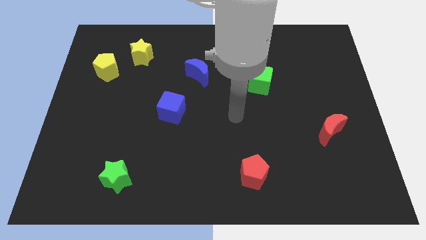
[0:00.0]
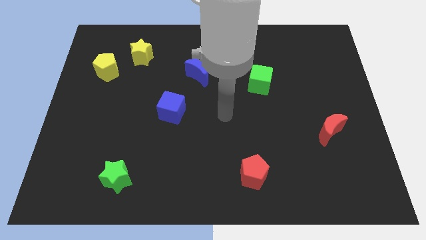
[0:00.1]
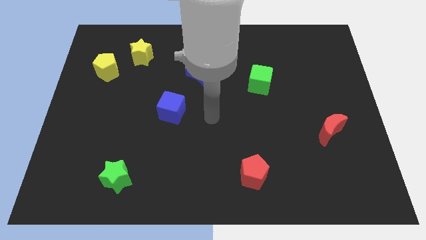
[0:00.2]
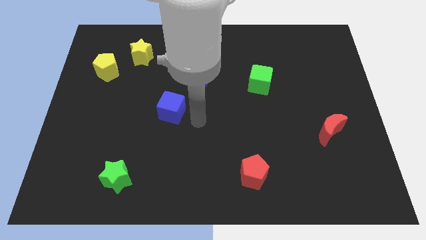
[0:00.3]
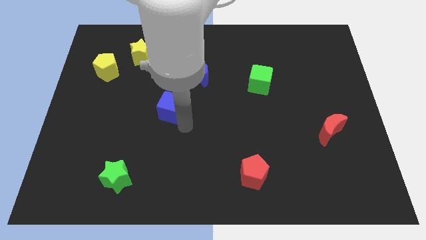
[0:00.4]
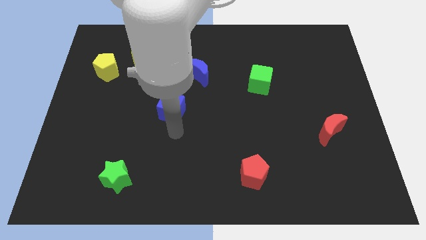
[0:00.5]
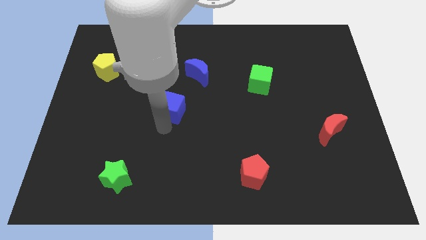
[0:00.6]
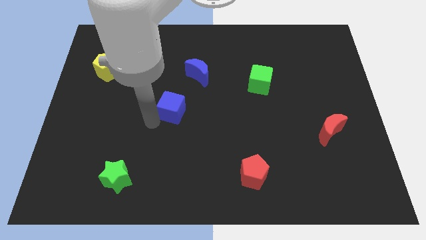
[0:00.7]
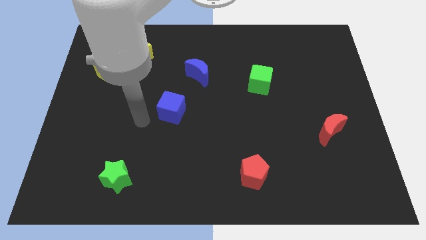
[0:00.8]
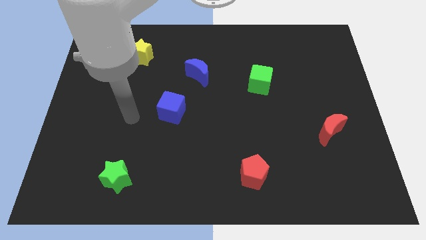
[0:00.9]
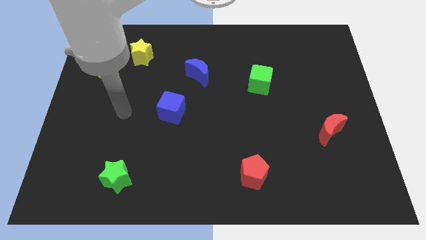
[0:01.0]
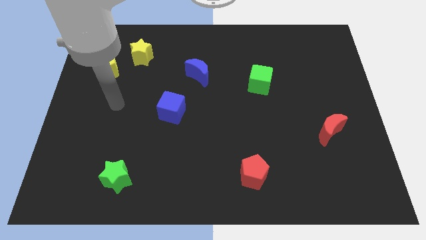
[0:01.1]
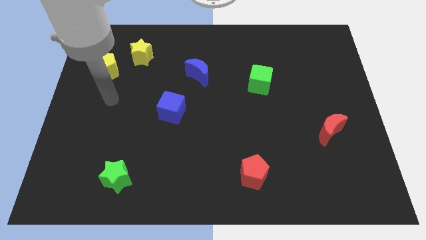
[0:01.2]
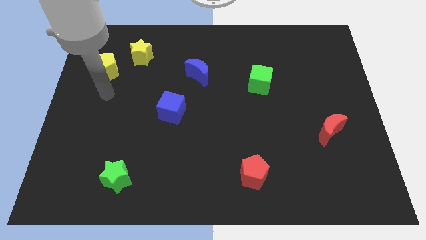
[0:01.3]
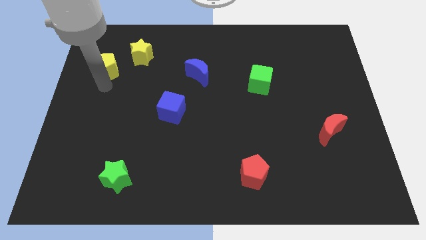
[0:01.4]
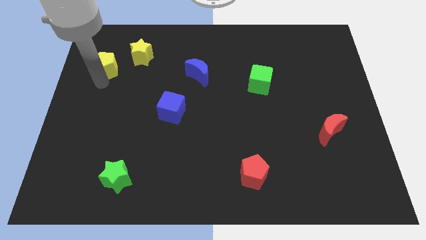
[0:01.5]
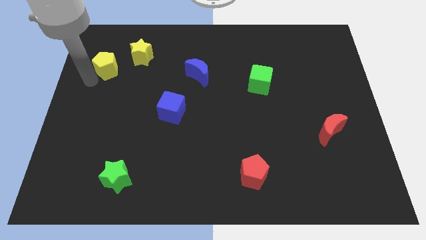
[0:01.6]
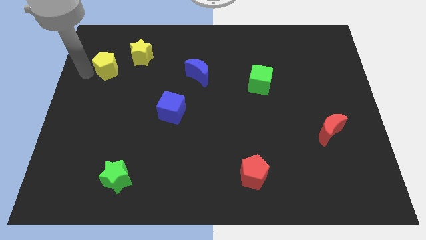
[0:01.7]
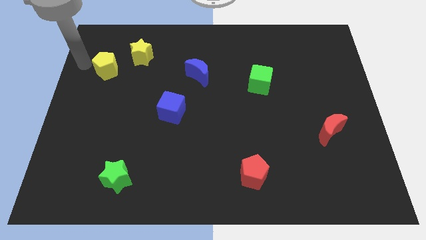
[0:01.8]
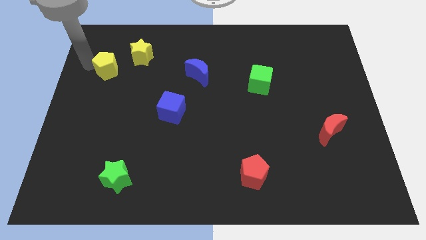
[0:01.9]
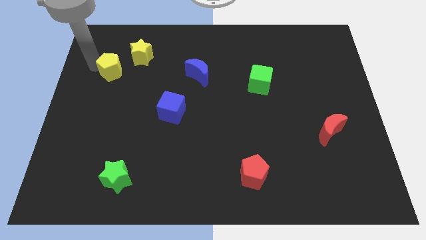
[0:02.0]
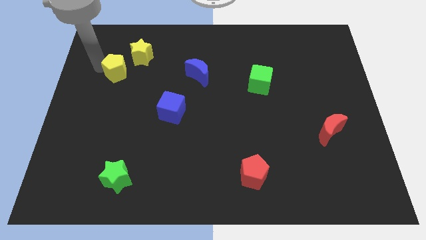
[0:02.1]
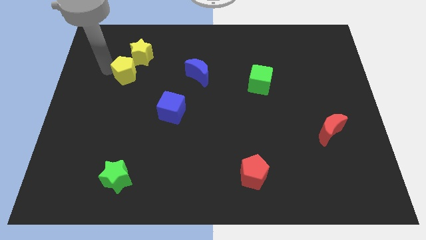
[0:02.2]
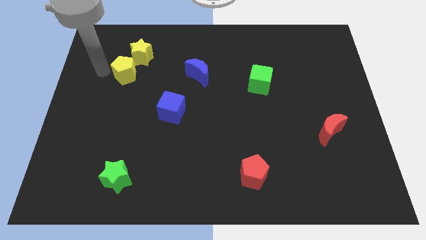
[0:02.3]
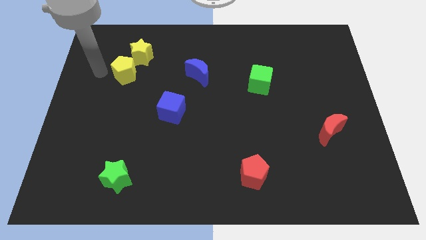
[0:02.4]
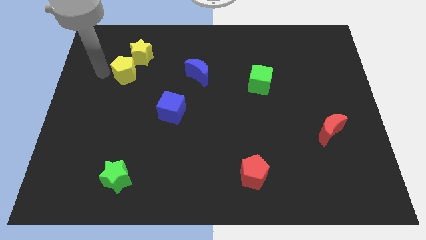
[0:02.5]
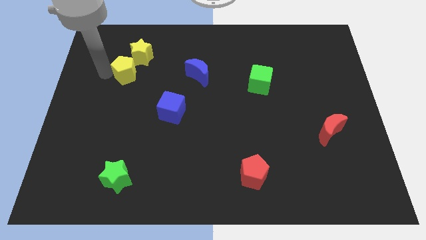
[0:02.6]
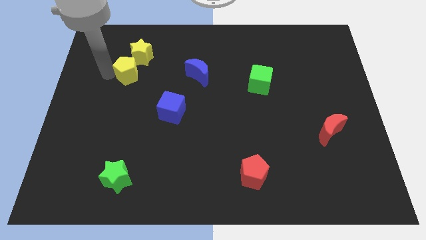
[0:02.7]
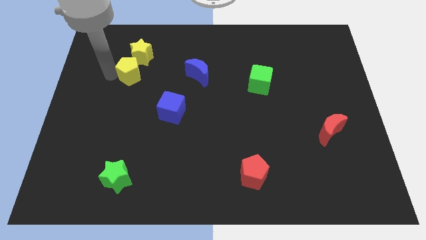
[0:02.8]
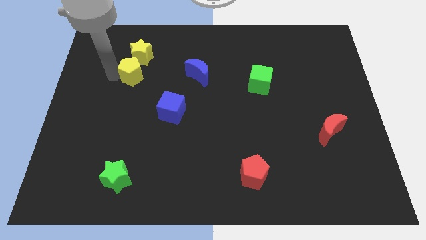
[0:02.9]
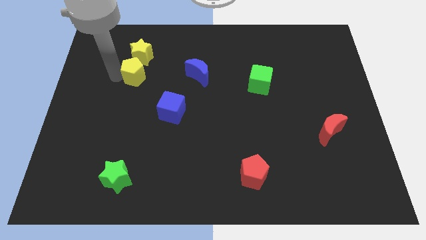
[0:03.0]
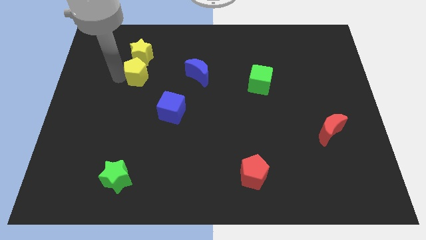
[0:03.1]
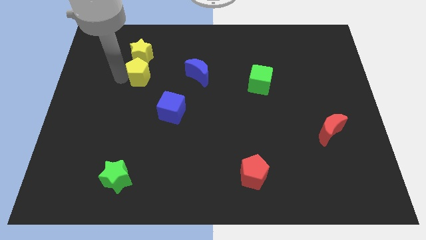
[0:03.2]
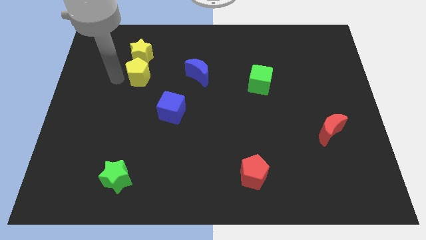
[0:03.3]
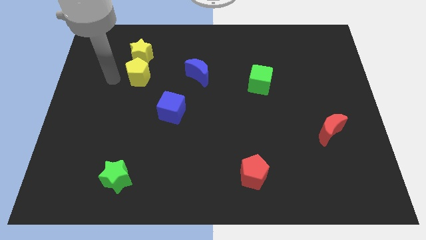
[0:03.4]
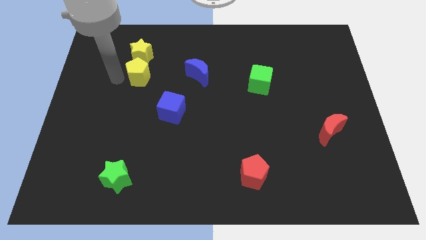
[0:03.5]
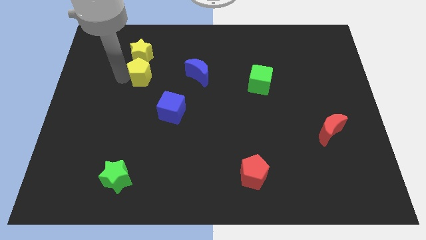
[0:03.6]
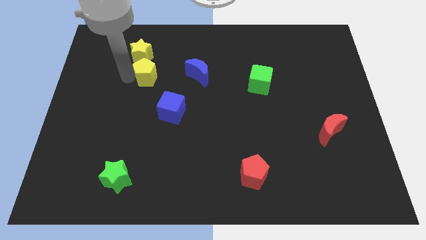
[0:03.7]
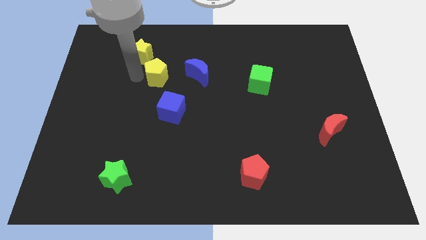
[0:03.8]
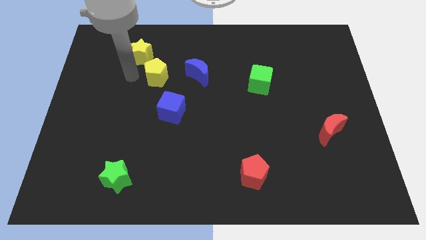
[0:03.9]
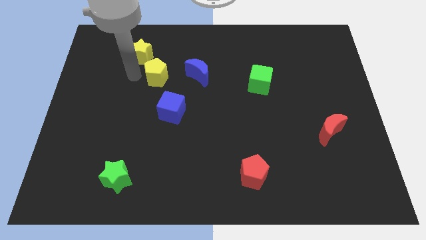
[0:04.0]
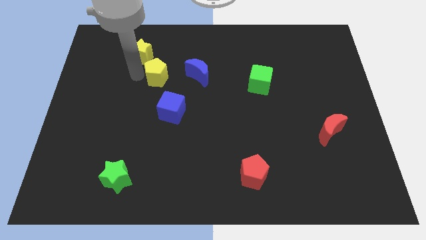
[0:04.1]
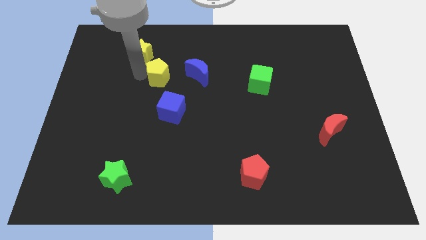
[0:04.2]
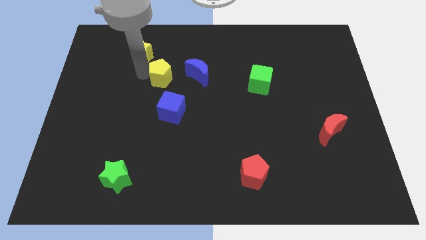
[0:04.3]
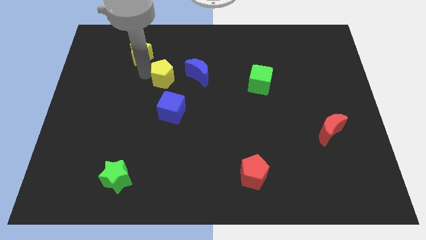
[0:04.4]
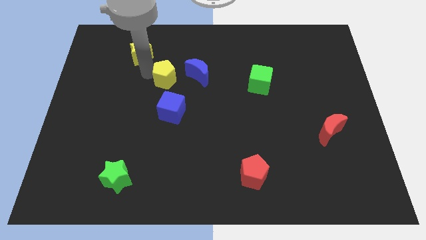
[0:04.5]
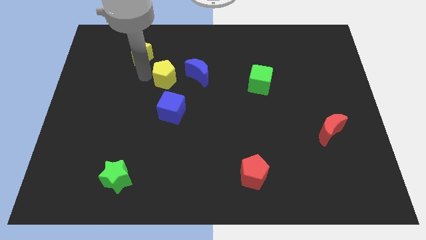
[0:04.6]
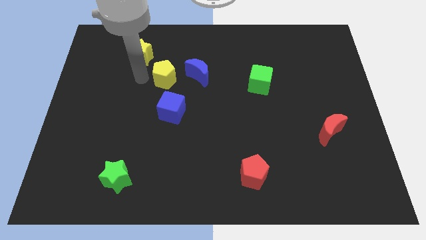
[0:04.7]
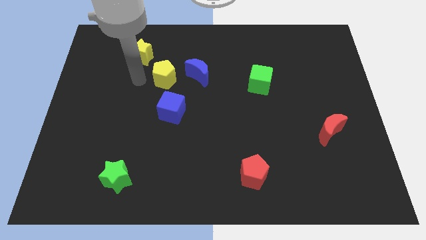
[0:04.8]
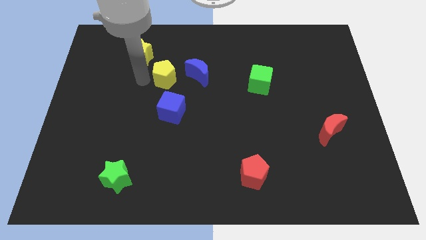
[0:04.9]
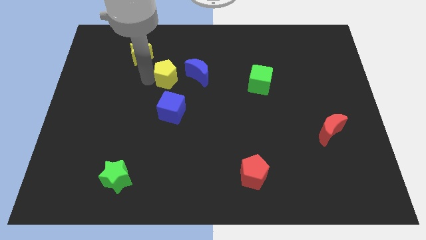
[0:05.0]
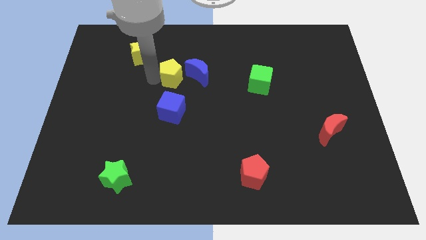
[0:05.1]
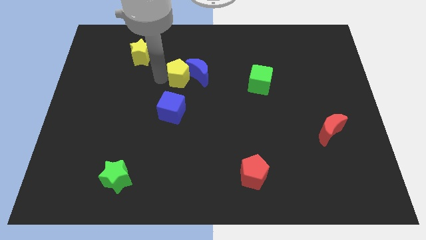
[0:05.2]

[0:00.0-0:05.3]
slide the yellow pentagon towards the blue moon

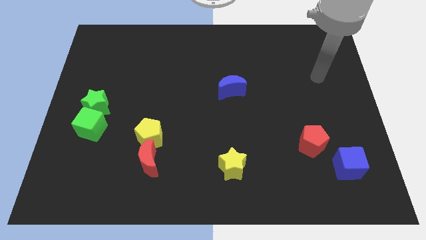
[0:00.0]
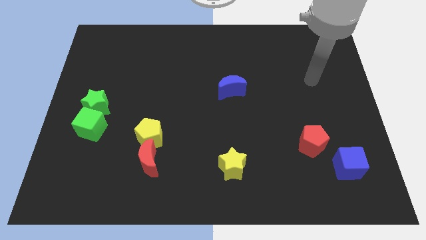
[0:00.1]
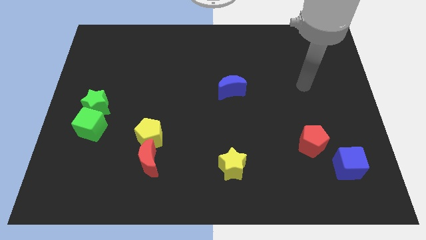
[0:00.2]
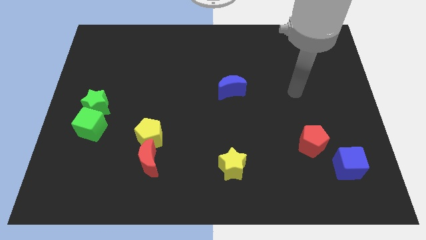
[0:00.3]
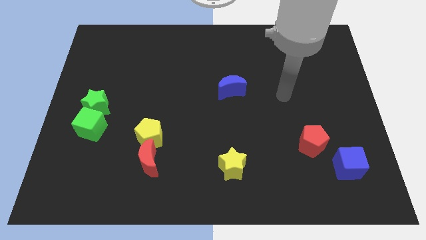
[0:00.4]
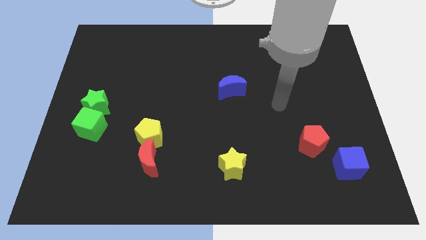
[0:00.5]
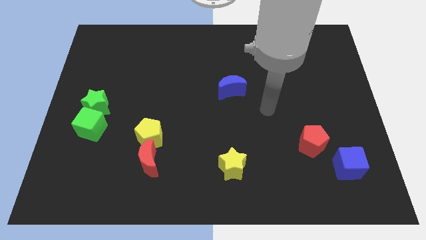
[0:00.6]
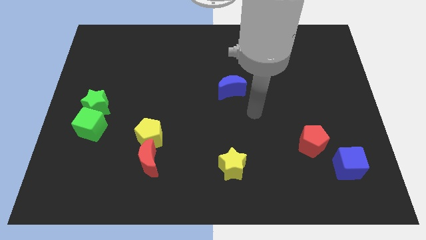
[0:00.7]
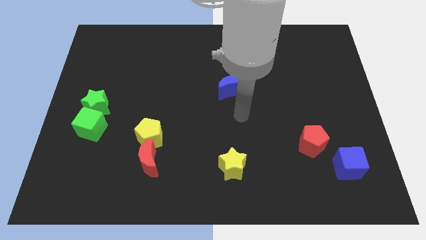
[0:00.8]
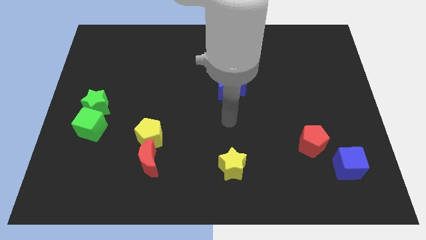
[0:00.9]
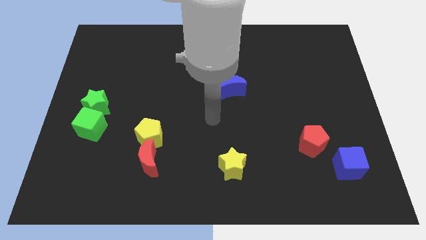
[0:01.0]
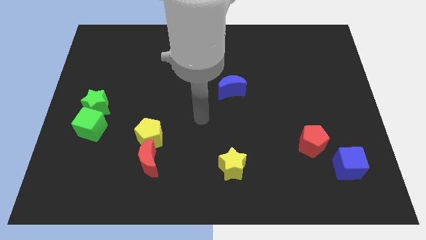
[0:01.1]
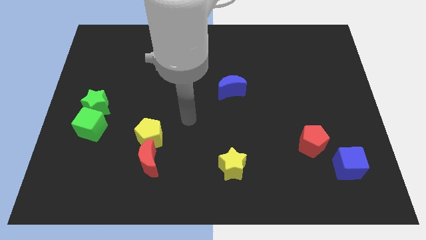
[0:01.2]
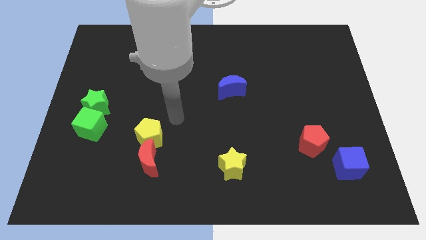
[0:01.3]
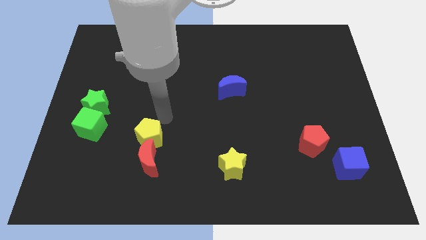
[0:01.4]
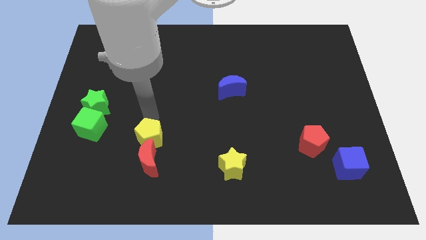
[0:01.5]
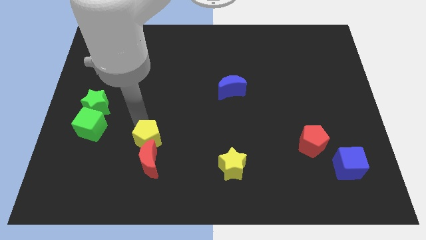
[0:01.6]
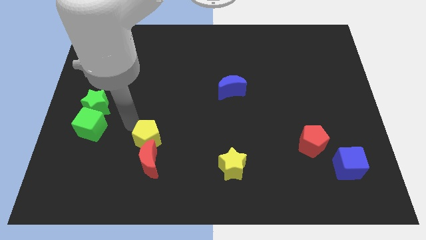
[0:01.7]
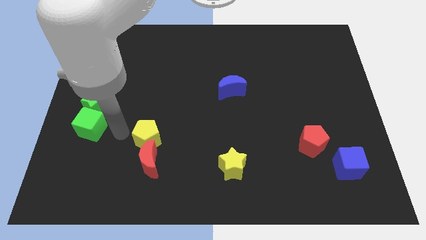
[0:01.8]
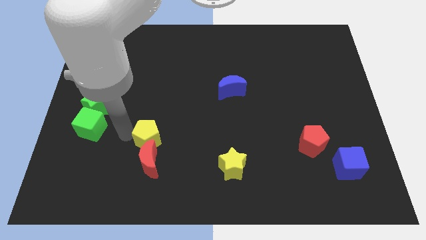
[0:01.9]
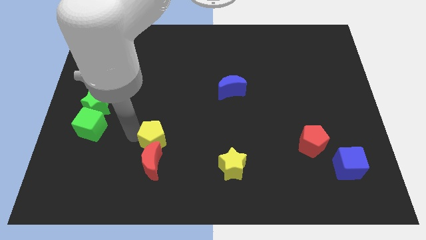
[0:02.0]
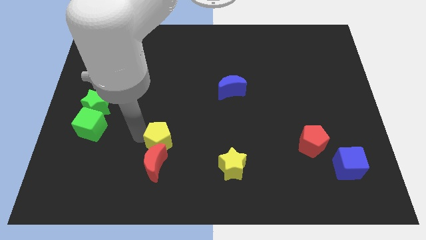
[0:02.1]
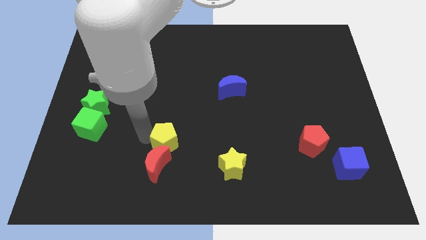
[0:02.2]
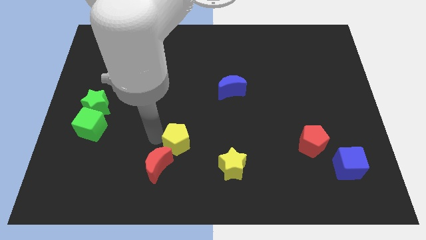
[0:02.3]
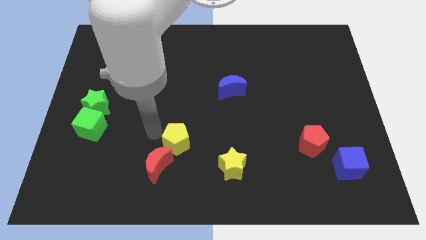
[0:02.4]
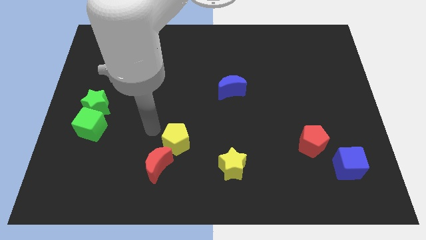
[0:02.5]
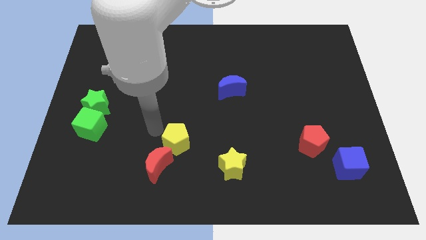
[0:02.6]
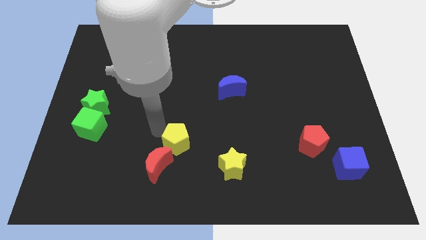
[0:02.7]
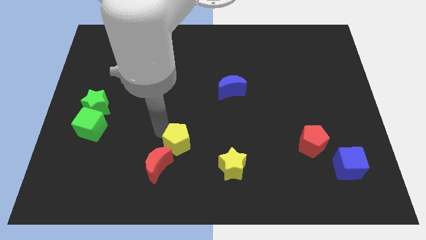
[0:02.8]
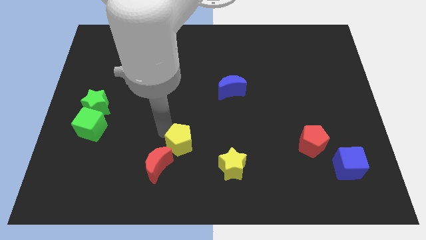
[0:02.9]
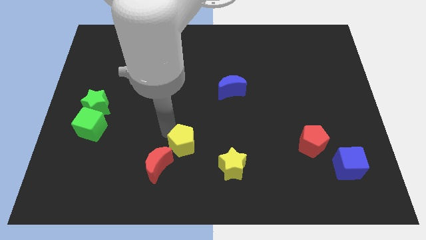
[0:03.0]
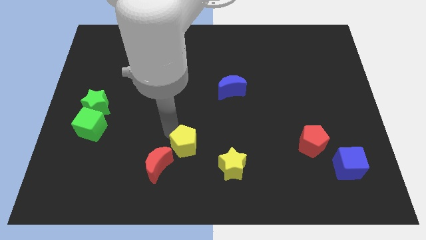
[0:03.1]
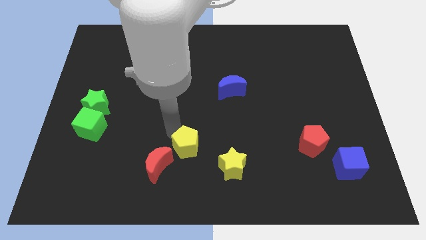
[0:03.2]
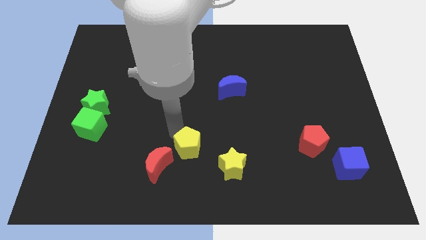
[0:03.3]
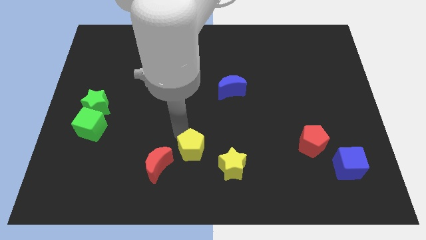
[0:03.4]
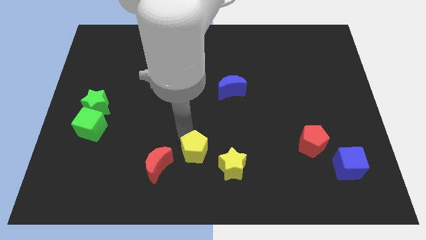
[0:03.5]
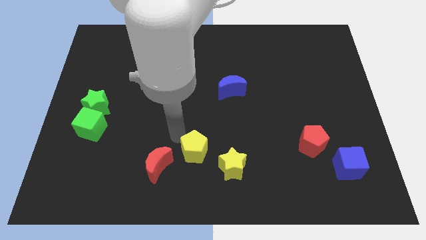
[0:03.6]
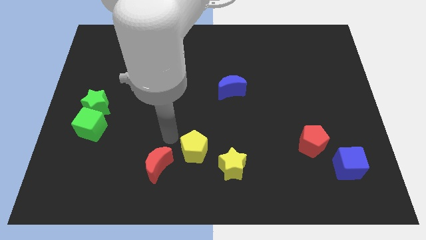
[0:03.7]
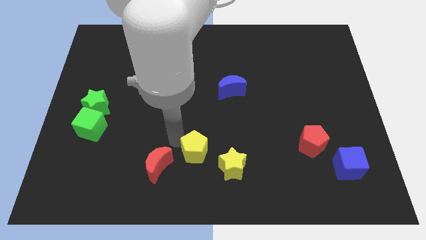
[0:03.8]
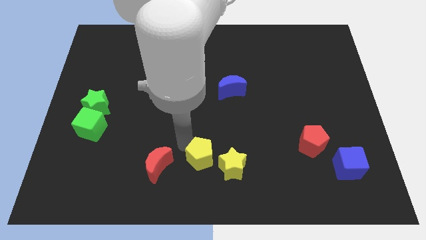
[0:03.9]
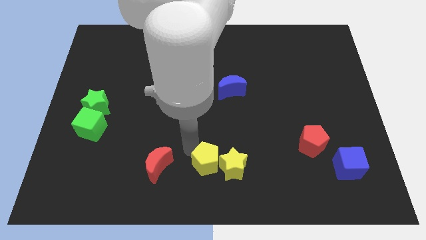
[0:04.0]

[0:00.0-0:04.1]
move the yellow pentagon close to the yellow star
